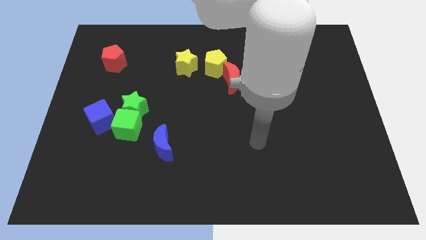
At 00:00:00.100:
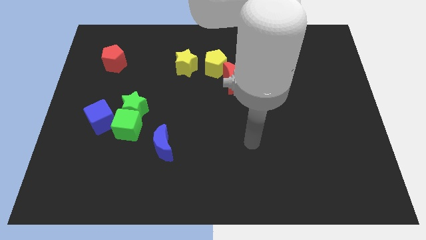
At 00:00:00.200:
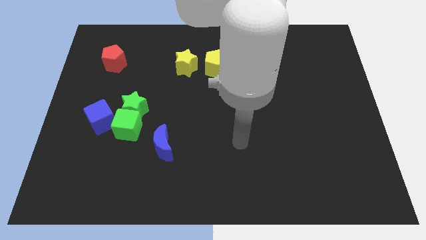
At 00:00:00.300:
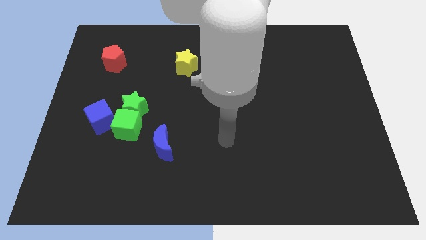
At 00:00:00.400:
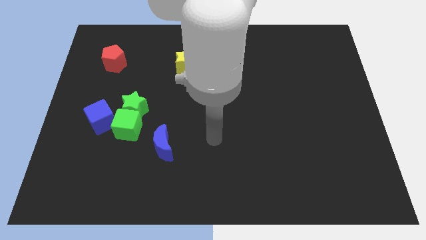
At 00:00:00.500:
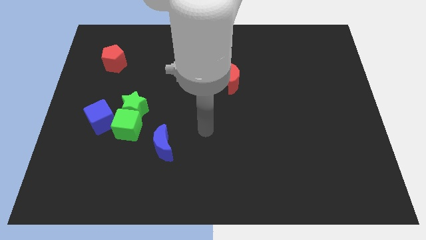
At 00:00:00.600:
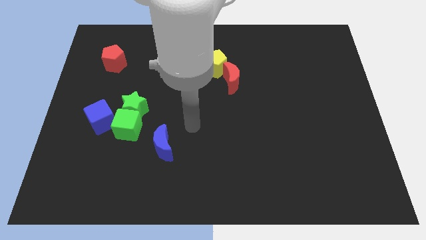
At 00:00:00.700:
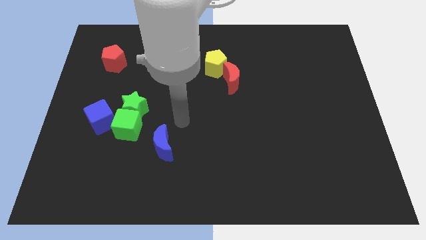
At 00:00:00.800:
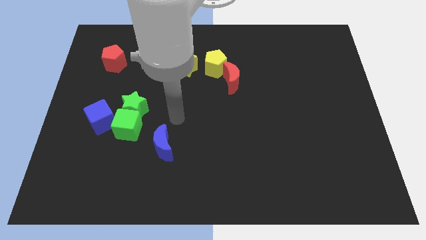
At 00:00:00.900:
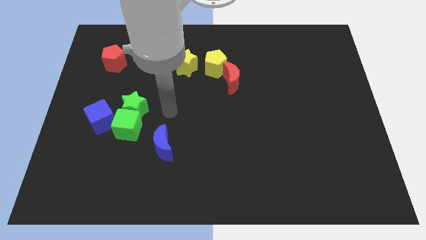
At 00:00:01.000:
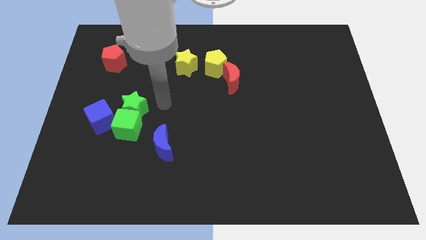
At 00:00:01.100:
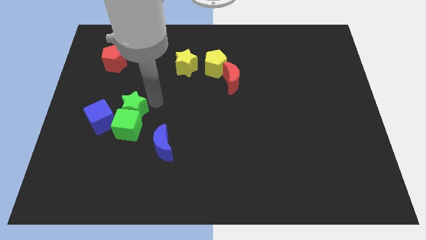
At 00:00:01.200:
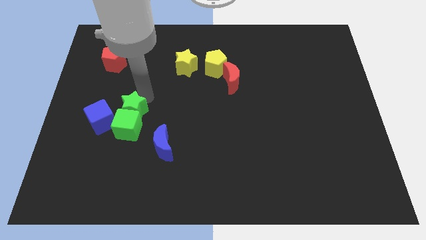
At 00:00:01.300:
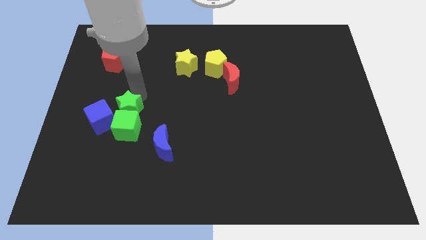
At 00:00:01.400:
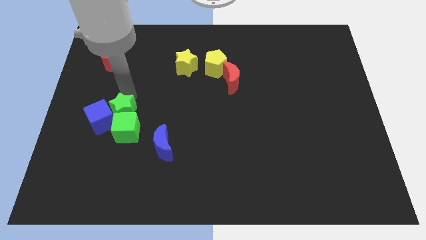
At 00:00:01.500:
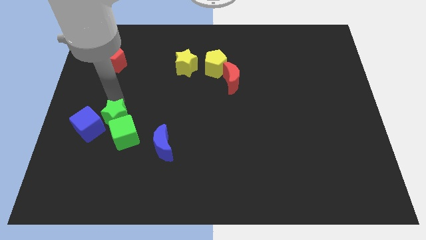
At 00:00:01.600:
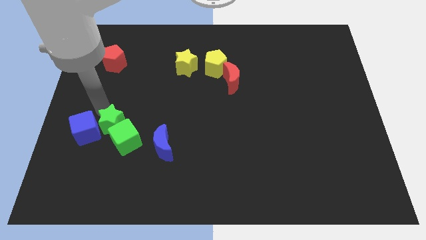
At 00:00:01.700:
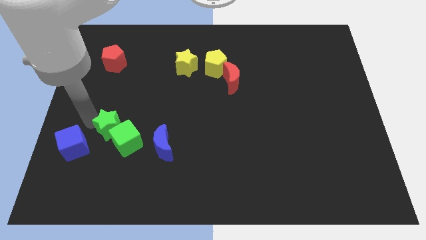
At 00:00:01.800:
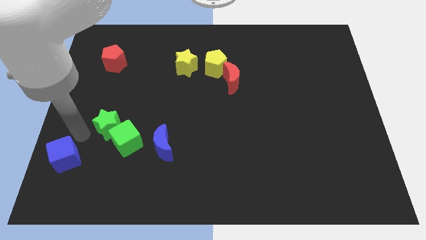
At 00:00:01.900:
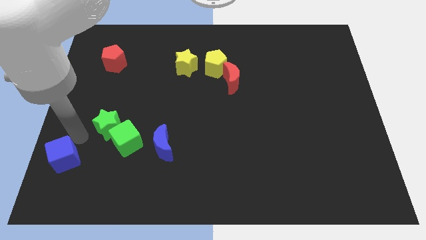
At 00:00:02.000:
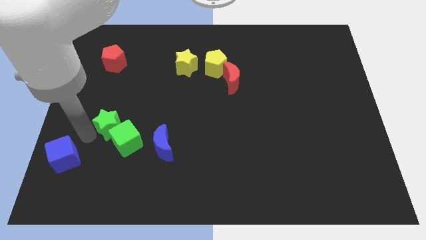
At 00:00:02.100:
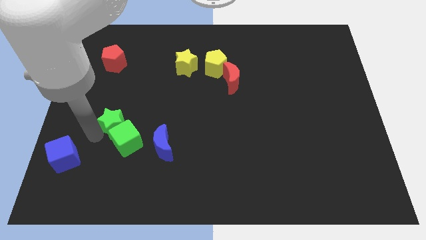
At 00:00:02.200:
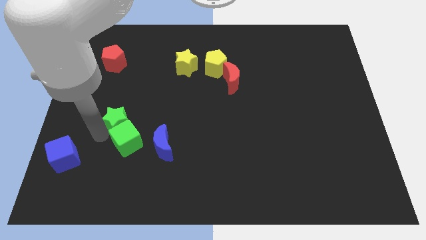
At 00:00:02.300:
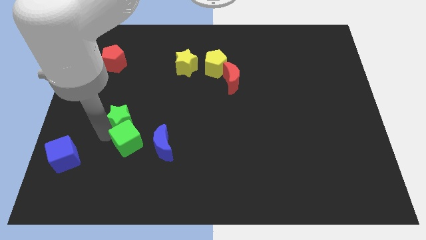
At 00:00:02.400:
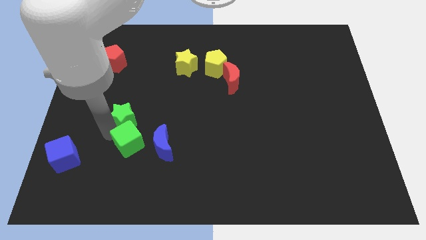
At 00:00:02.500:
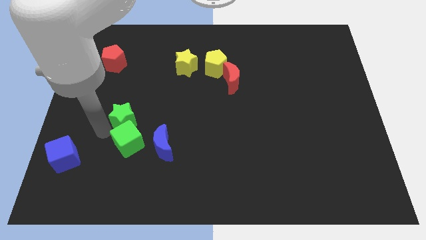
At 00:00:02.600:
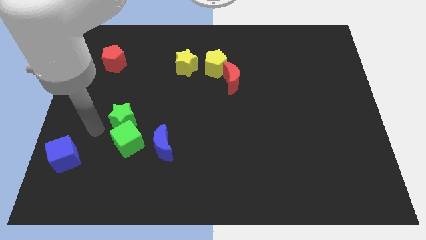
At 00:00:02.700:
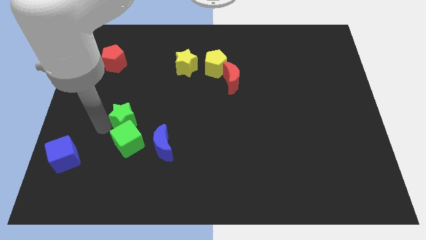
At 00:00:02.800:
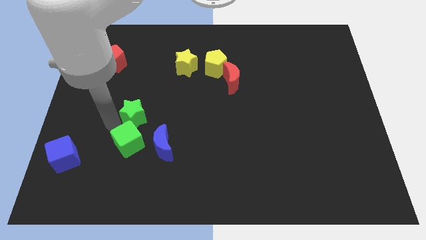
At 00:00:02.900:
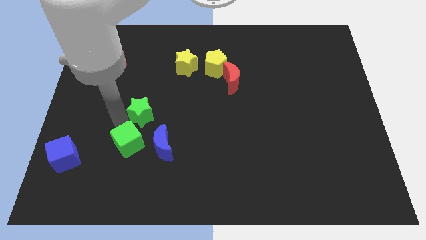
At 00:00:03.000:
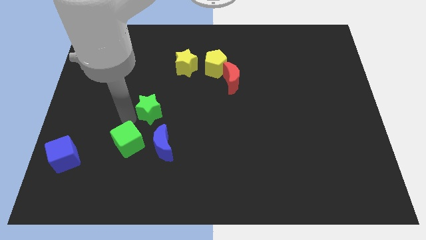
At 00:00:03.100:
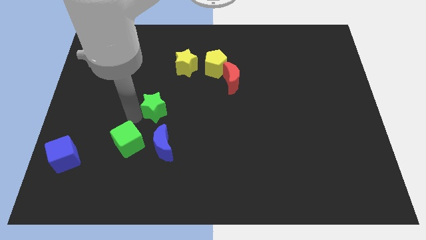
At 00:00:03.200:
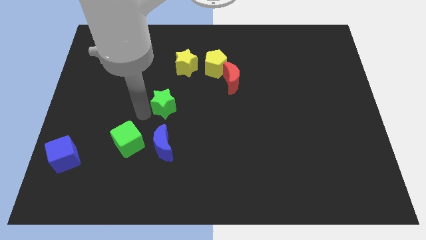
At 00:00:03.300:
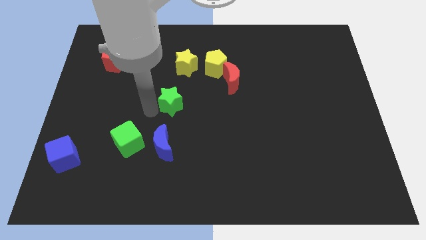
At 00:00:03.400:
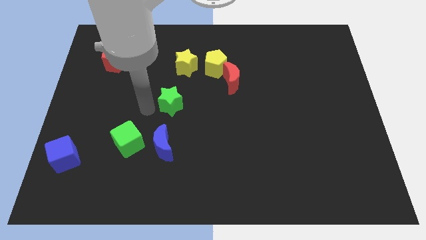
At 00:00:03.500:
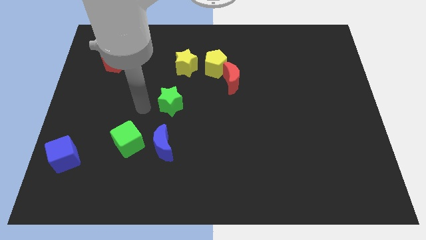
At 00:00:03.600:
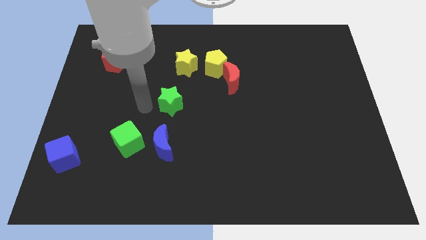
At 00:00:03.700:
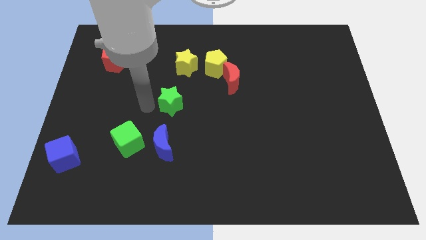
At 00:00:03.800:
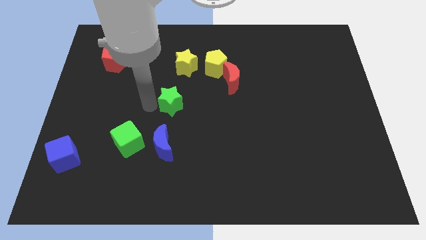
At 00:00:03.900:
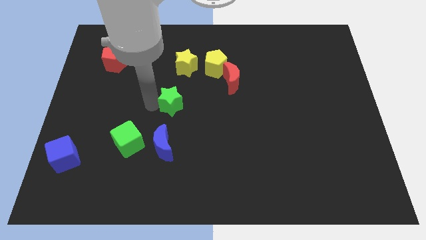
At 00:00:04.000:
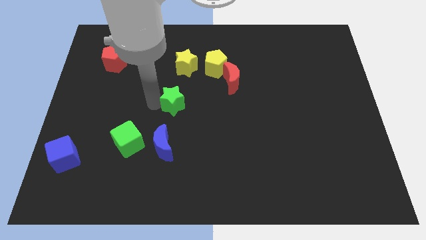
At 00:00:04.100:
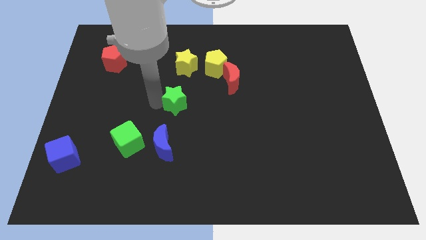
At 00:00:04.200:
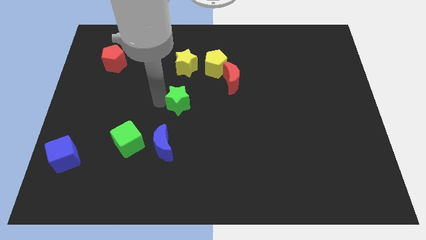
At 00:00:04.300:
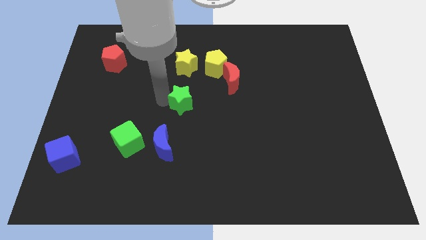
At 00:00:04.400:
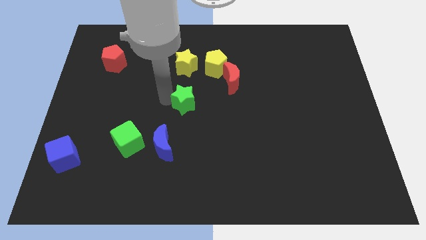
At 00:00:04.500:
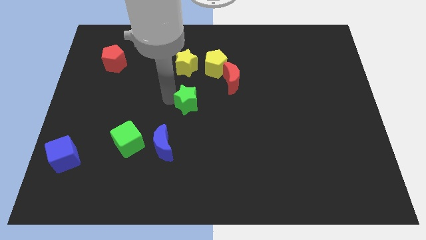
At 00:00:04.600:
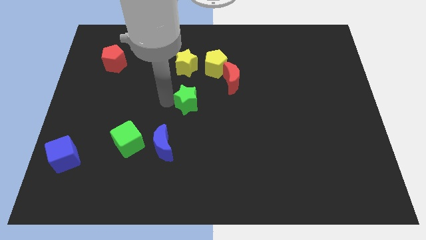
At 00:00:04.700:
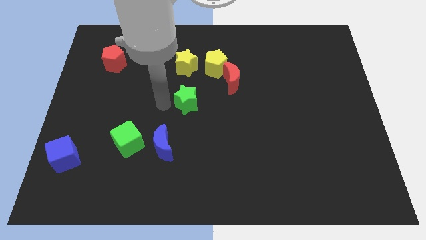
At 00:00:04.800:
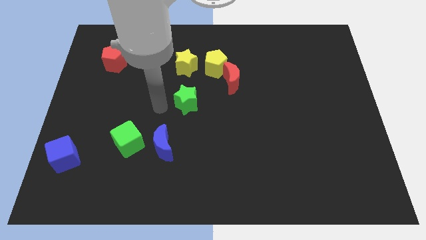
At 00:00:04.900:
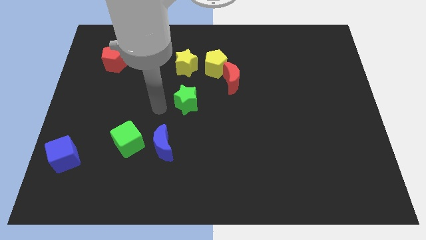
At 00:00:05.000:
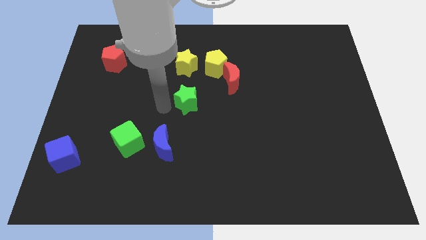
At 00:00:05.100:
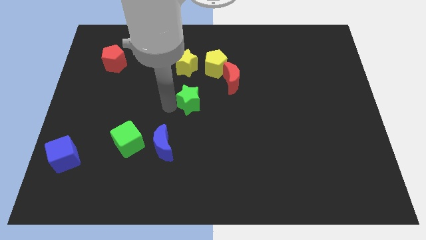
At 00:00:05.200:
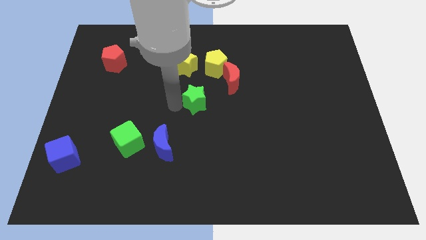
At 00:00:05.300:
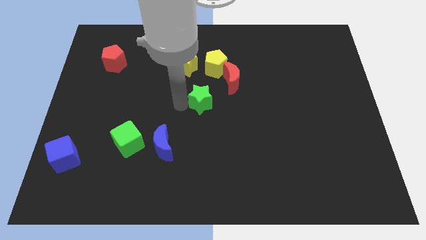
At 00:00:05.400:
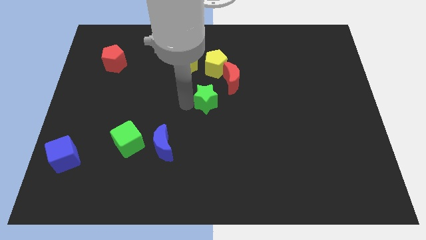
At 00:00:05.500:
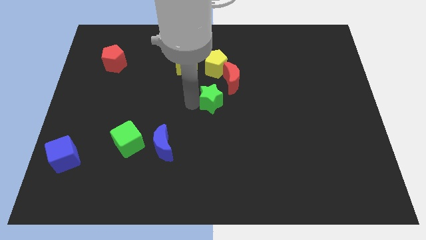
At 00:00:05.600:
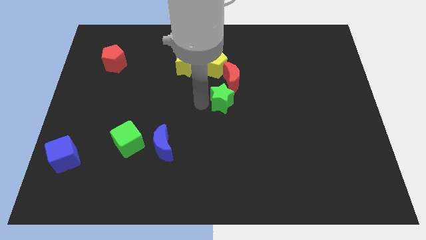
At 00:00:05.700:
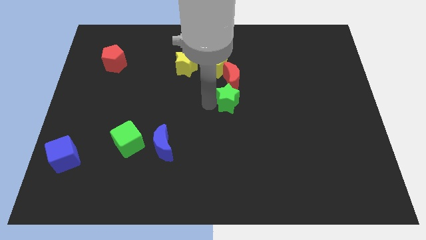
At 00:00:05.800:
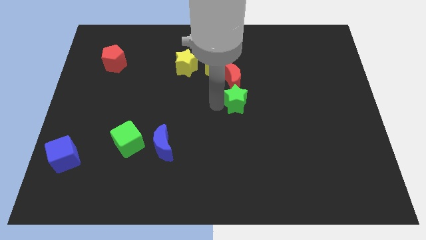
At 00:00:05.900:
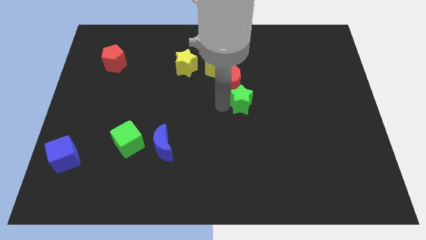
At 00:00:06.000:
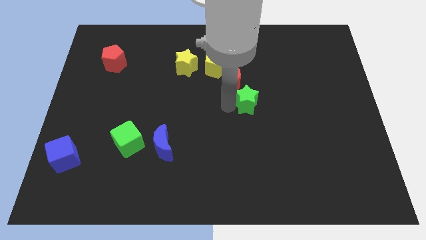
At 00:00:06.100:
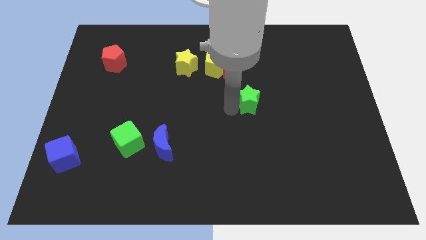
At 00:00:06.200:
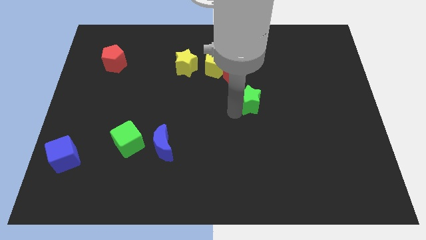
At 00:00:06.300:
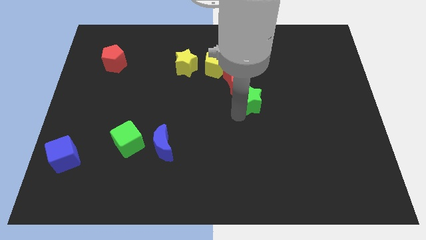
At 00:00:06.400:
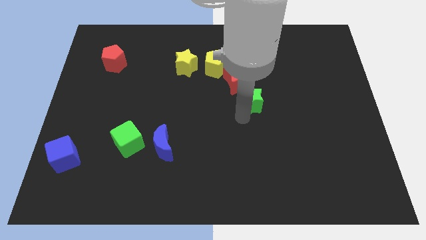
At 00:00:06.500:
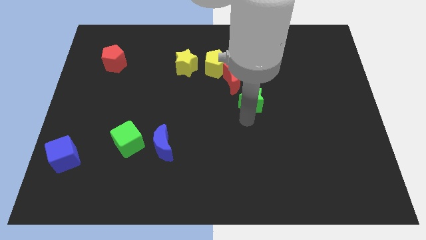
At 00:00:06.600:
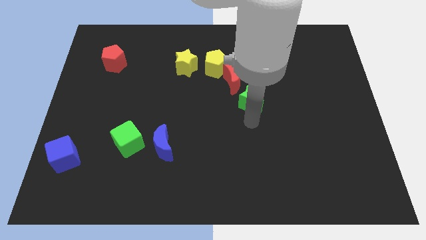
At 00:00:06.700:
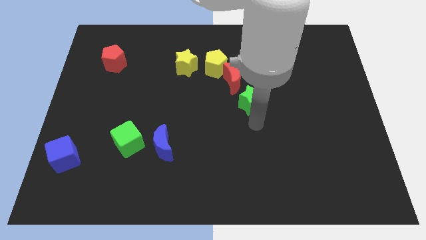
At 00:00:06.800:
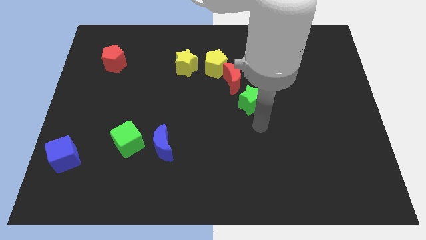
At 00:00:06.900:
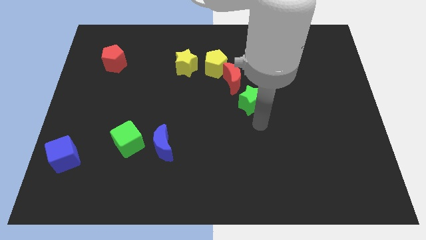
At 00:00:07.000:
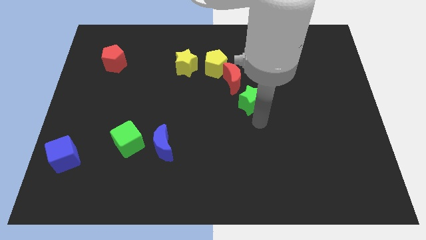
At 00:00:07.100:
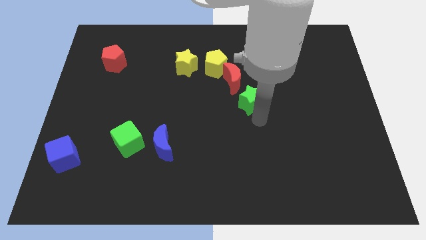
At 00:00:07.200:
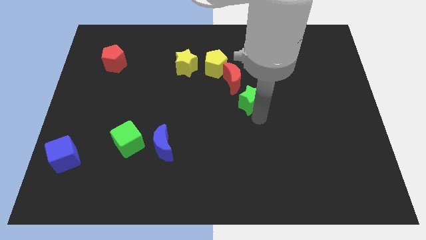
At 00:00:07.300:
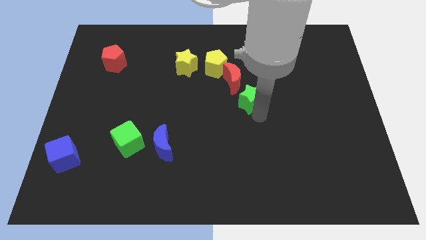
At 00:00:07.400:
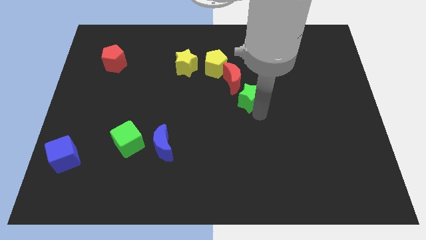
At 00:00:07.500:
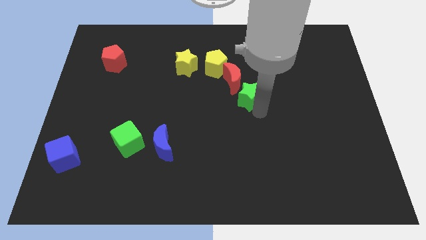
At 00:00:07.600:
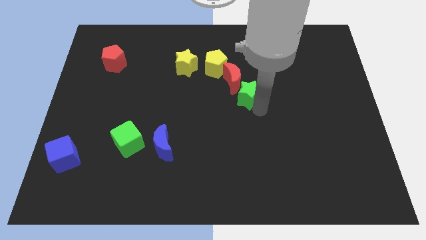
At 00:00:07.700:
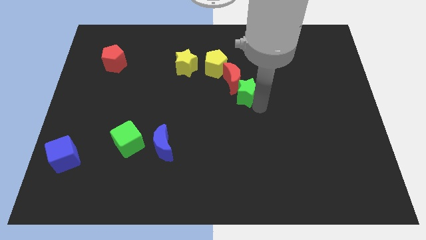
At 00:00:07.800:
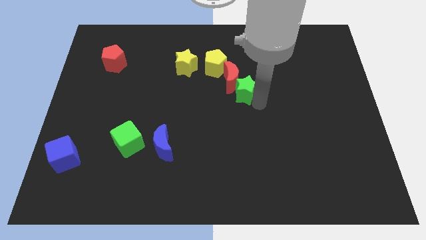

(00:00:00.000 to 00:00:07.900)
put the green star to the right side of the red moon
